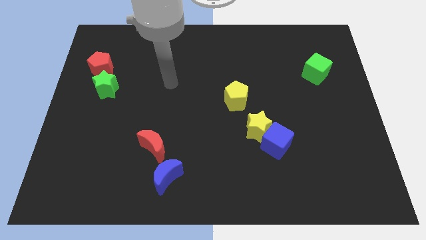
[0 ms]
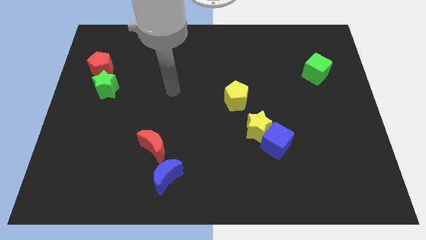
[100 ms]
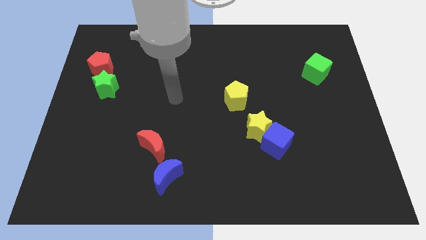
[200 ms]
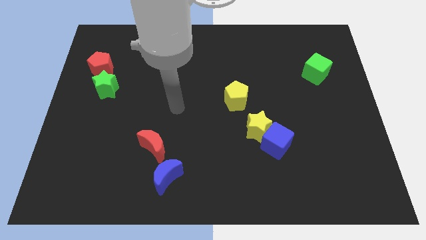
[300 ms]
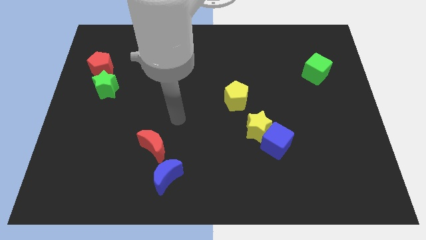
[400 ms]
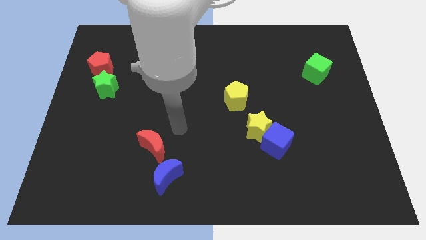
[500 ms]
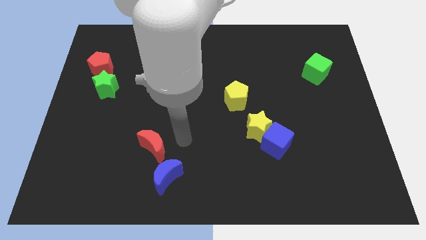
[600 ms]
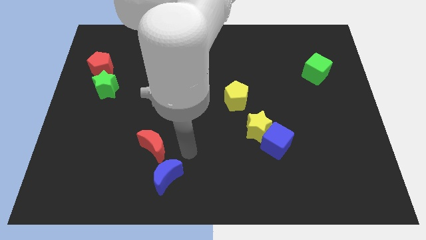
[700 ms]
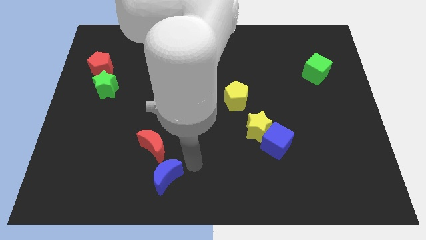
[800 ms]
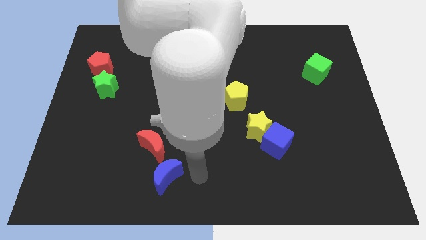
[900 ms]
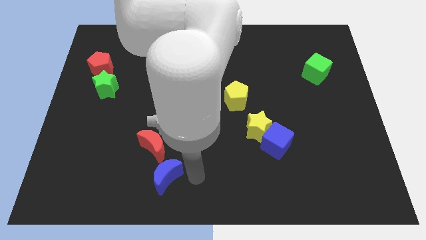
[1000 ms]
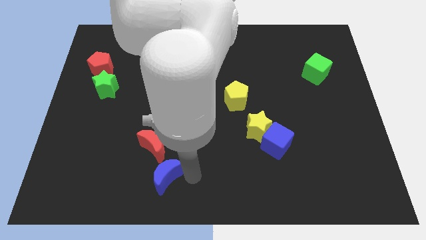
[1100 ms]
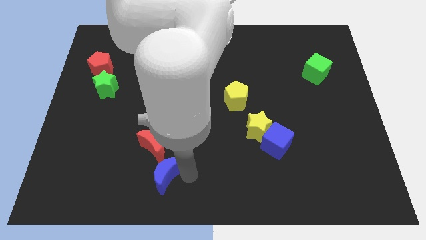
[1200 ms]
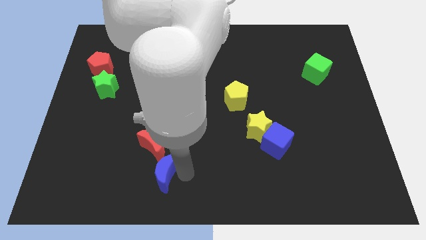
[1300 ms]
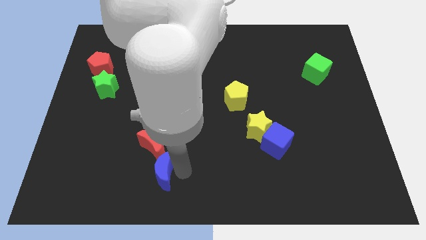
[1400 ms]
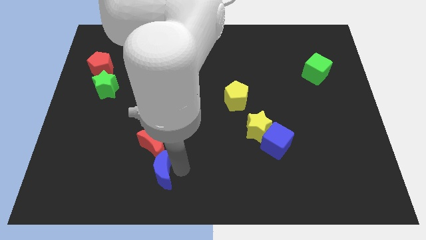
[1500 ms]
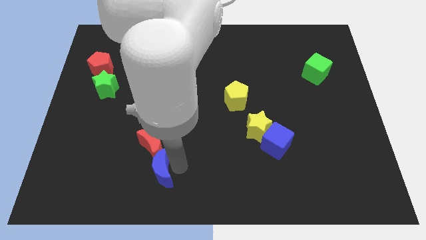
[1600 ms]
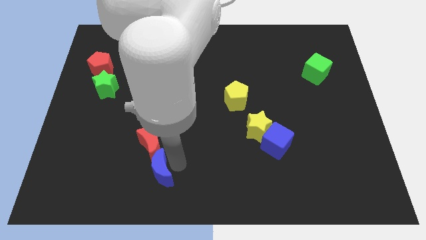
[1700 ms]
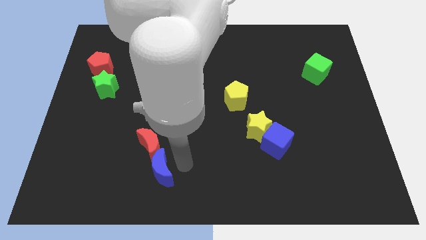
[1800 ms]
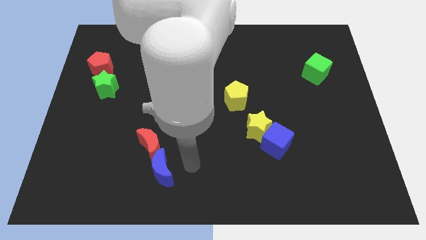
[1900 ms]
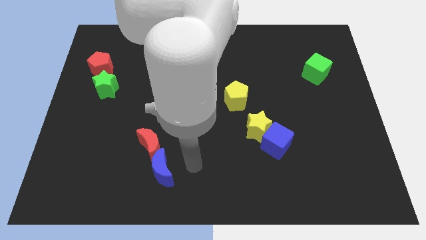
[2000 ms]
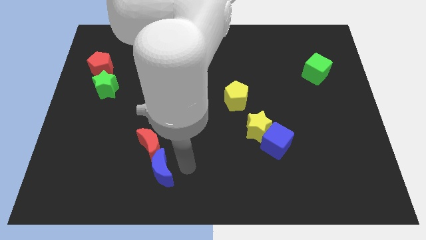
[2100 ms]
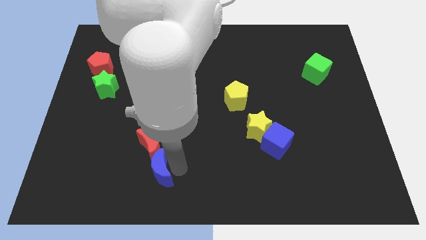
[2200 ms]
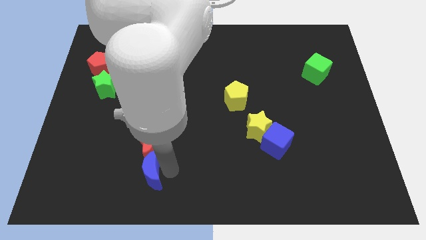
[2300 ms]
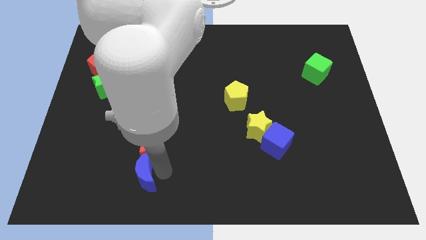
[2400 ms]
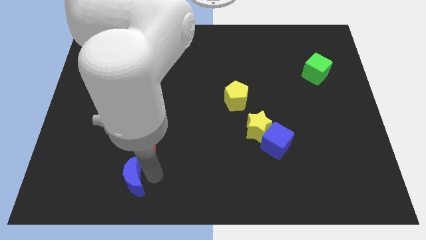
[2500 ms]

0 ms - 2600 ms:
move the blue moon left slightly

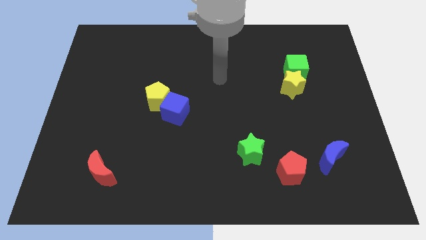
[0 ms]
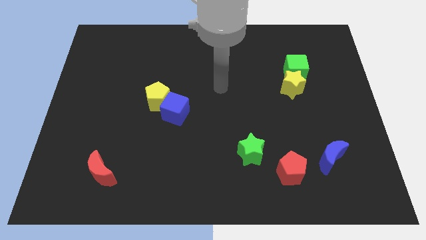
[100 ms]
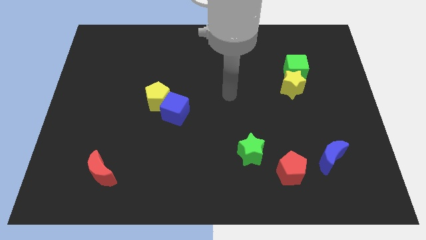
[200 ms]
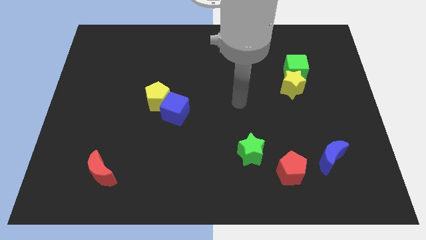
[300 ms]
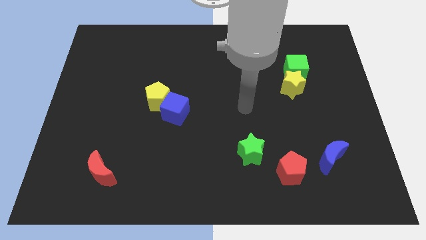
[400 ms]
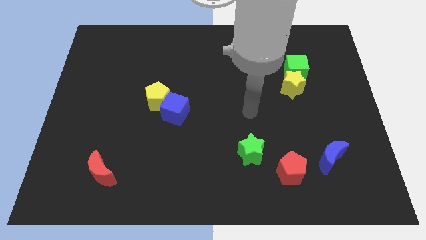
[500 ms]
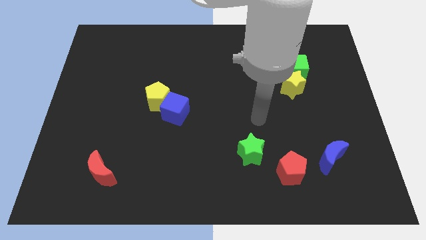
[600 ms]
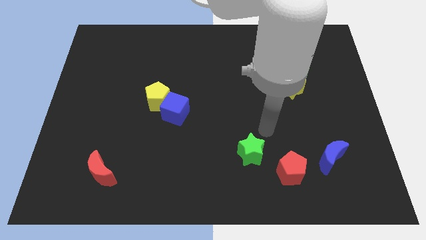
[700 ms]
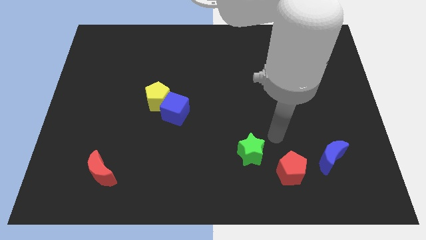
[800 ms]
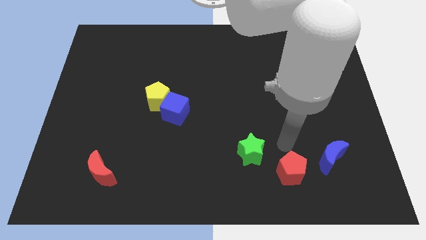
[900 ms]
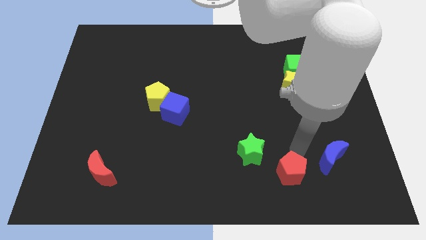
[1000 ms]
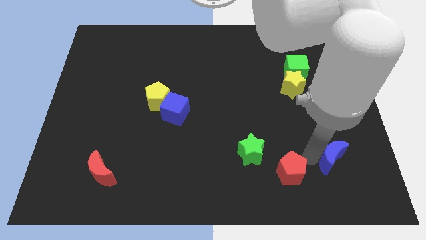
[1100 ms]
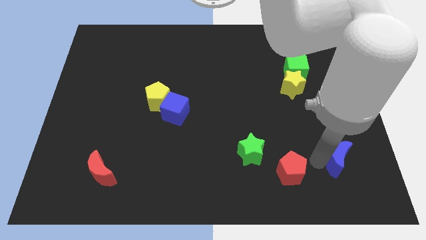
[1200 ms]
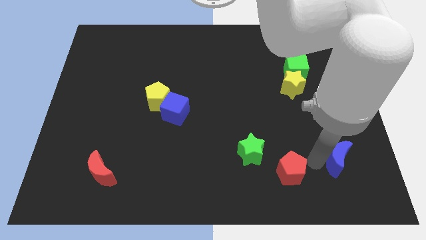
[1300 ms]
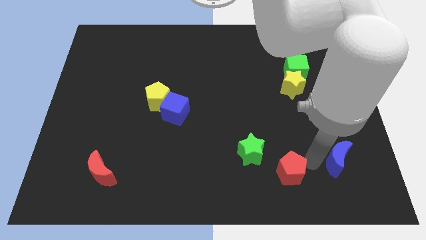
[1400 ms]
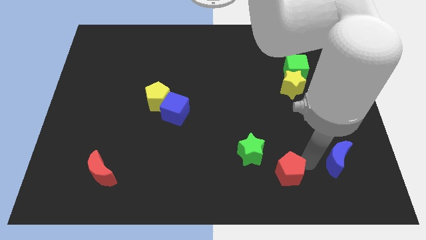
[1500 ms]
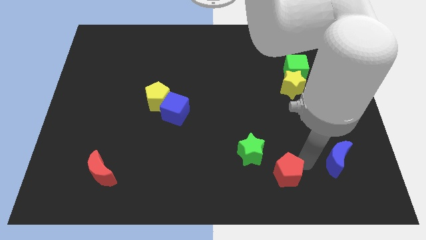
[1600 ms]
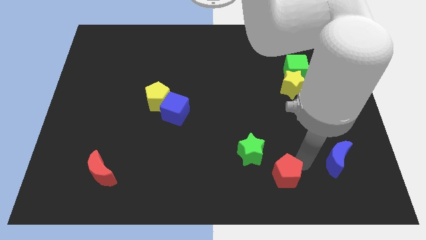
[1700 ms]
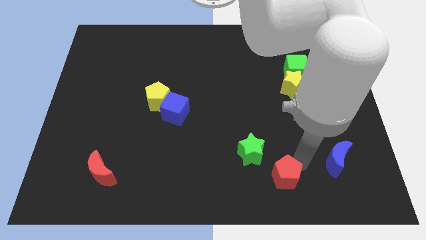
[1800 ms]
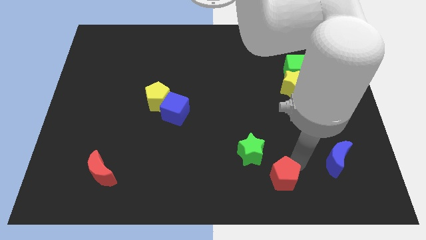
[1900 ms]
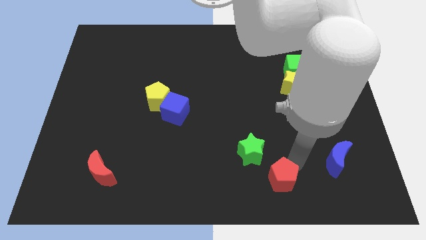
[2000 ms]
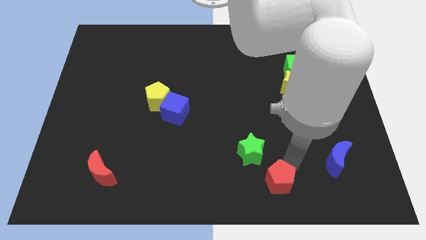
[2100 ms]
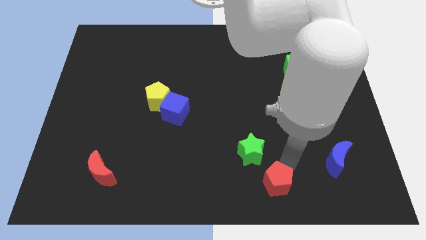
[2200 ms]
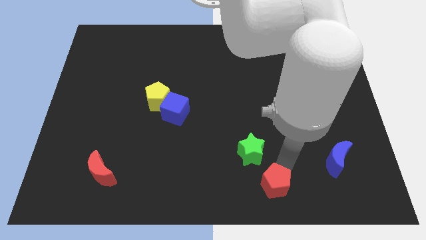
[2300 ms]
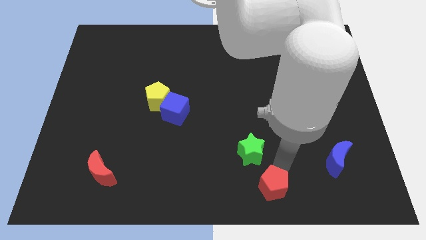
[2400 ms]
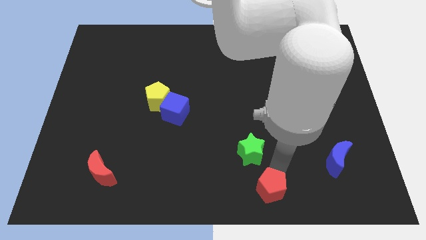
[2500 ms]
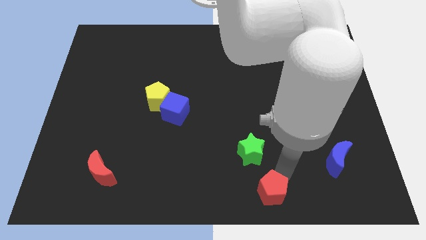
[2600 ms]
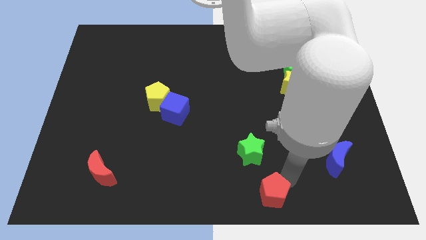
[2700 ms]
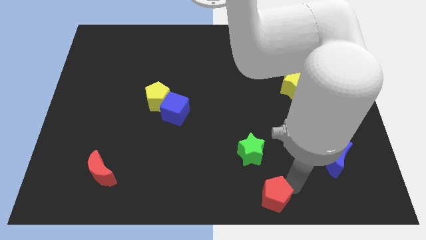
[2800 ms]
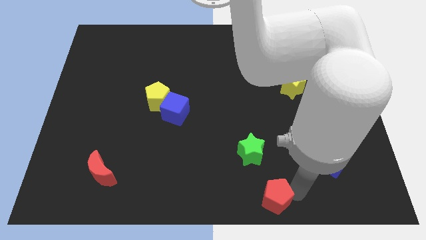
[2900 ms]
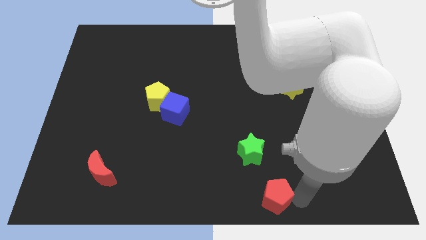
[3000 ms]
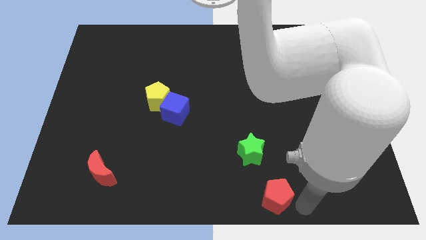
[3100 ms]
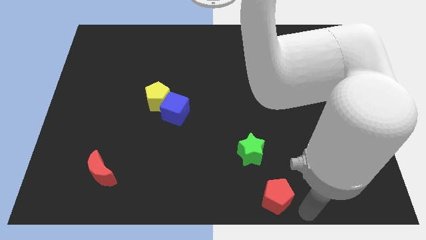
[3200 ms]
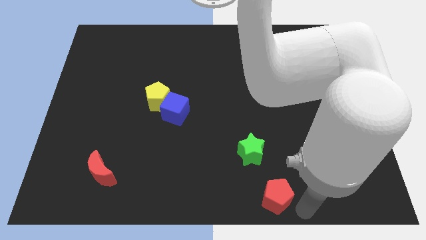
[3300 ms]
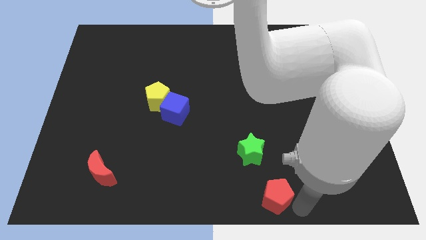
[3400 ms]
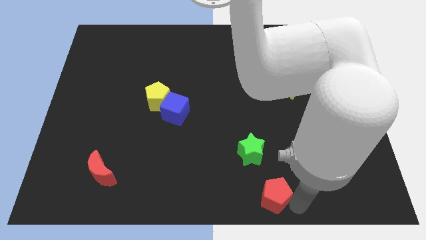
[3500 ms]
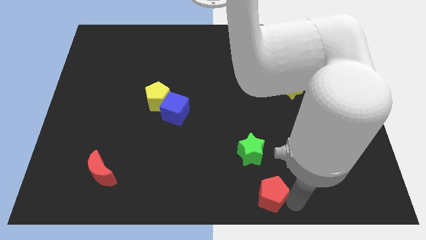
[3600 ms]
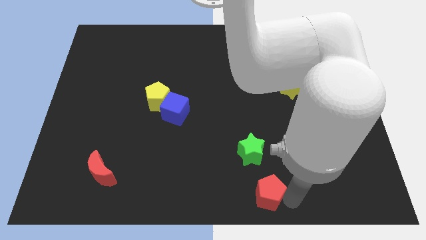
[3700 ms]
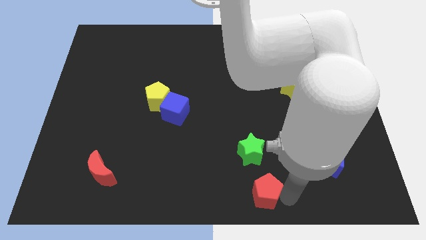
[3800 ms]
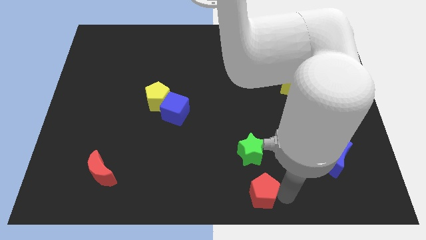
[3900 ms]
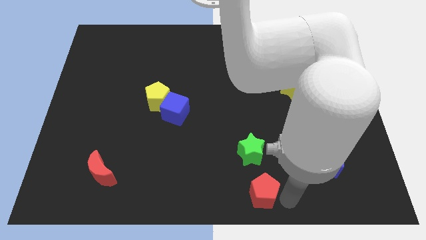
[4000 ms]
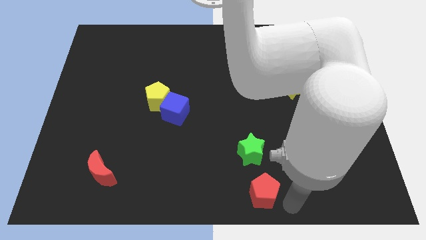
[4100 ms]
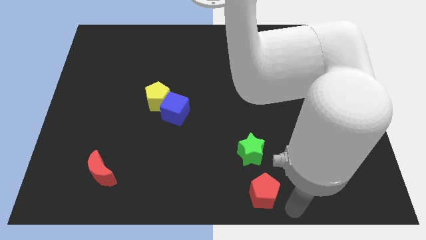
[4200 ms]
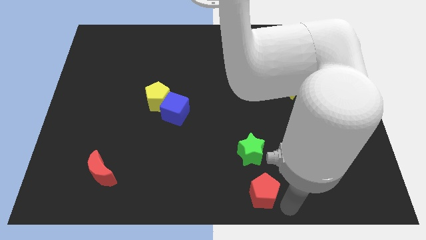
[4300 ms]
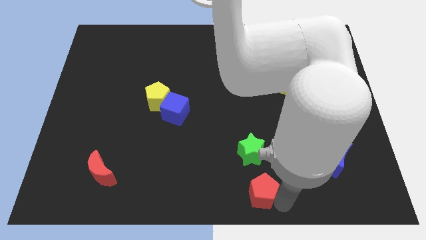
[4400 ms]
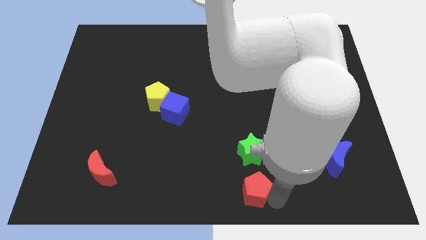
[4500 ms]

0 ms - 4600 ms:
slide the red pentagon left a little bit

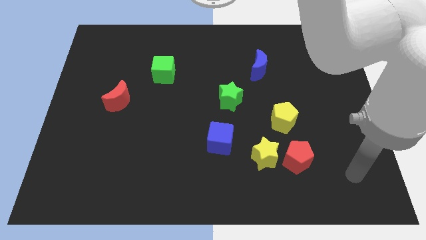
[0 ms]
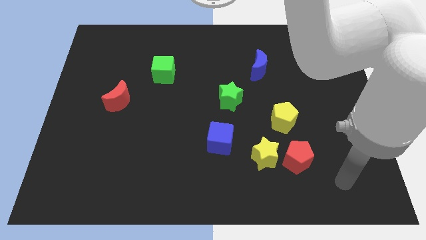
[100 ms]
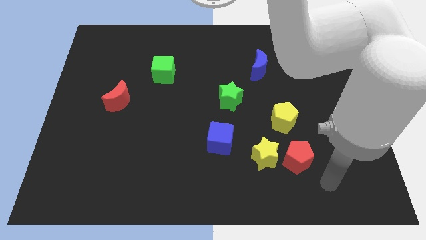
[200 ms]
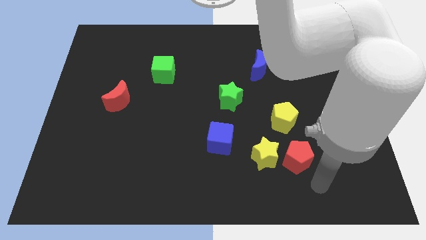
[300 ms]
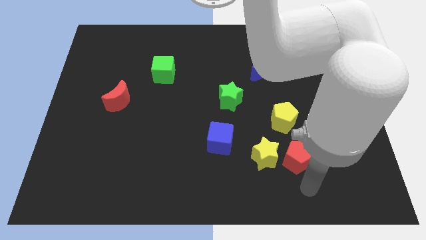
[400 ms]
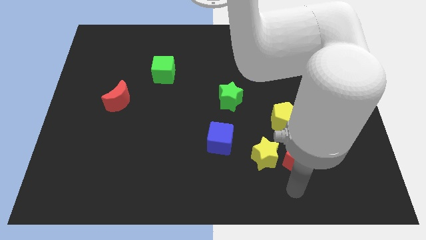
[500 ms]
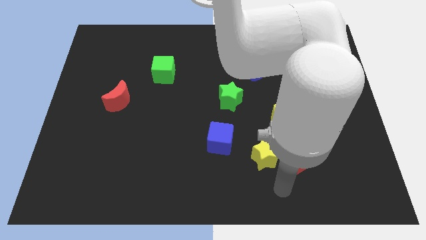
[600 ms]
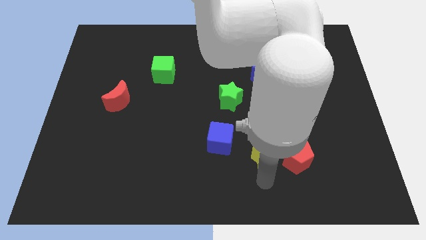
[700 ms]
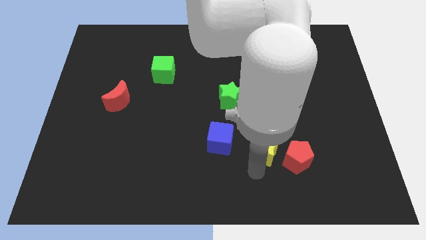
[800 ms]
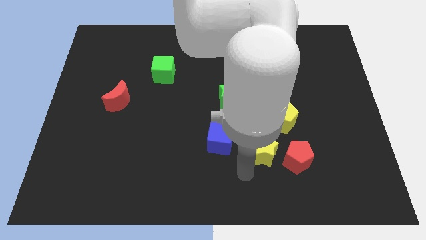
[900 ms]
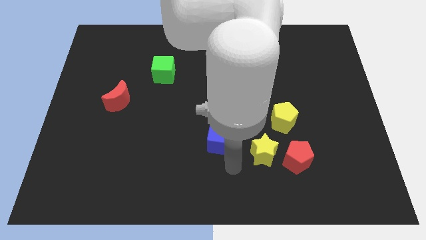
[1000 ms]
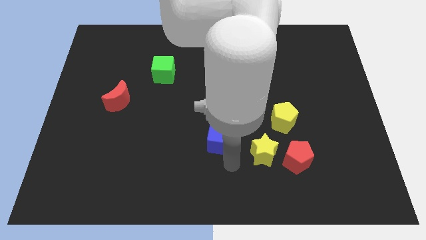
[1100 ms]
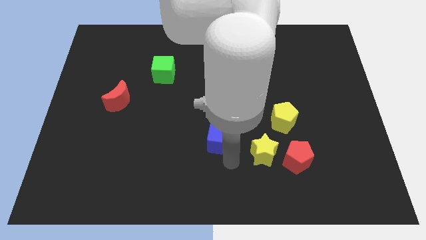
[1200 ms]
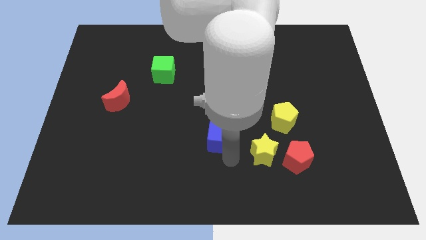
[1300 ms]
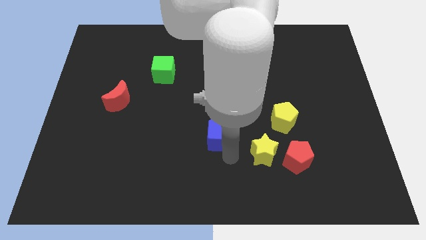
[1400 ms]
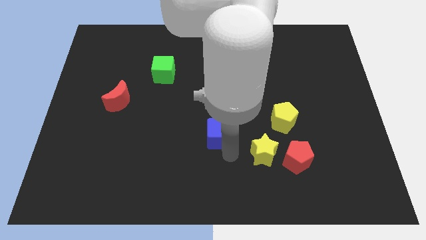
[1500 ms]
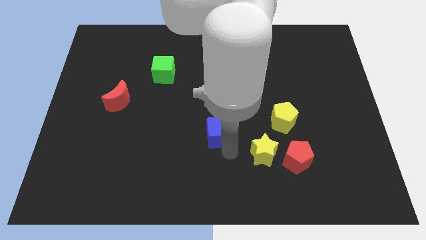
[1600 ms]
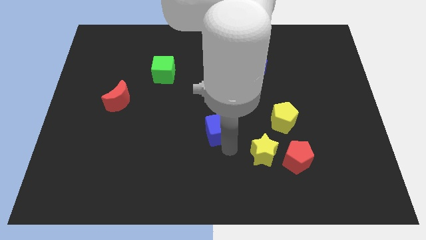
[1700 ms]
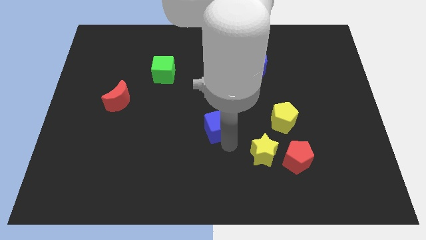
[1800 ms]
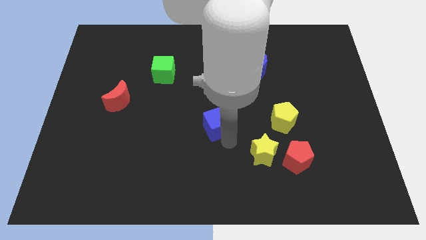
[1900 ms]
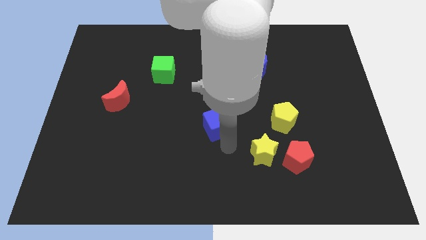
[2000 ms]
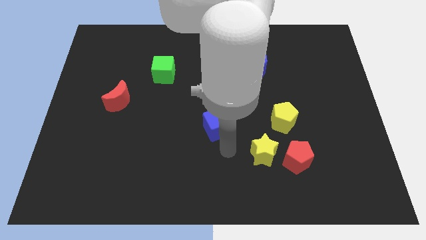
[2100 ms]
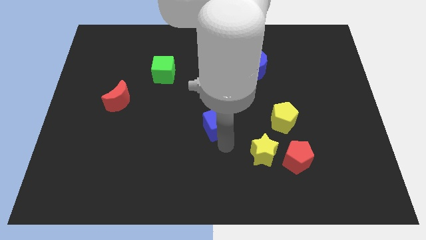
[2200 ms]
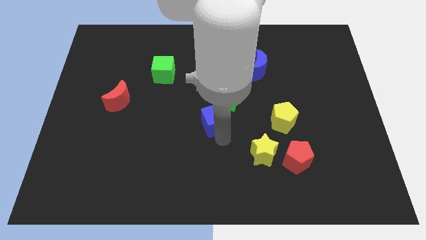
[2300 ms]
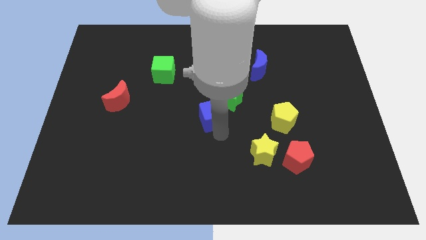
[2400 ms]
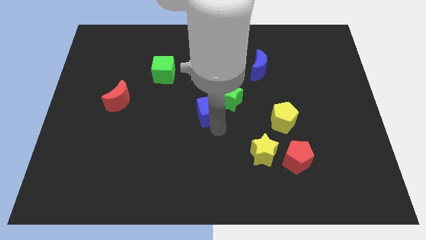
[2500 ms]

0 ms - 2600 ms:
slide the blue cube up a little
